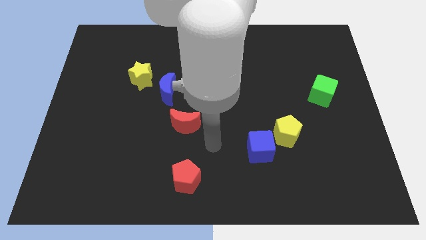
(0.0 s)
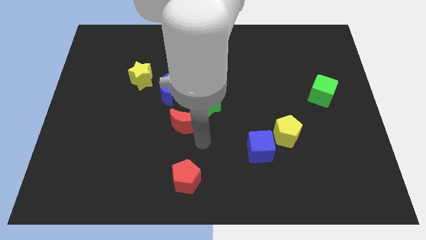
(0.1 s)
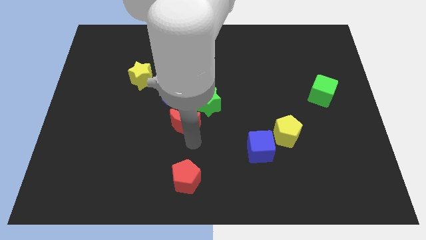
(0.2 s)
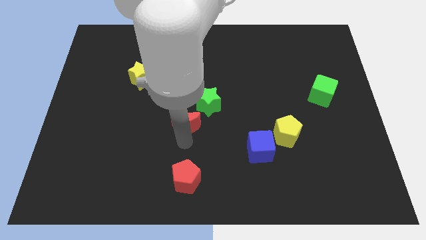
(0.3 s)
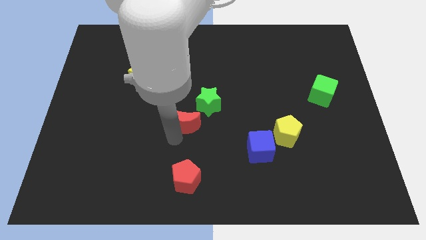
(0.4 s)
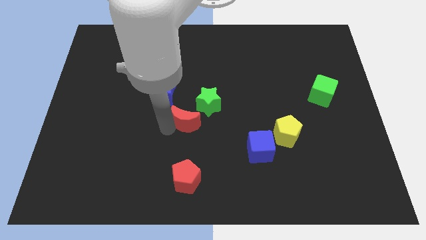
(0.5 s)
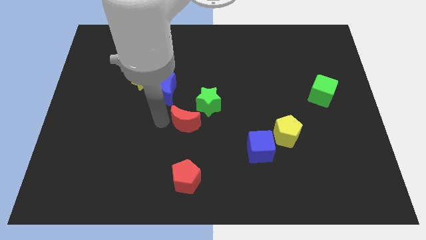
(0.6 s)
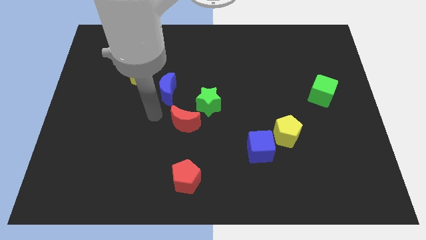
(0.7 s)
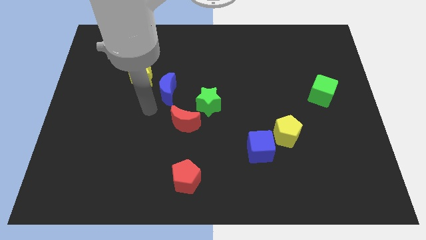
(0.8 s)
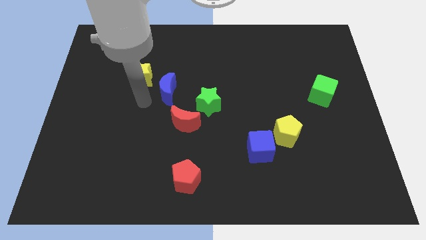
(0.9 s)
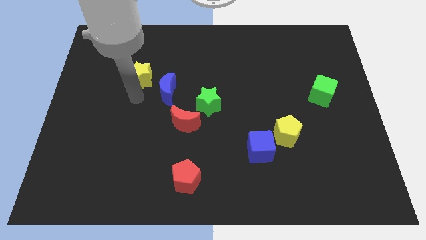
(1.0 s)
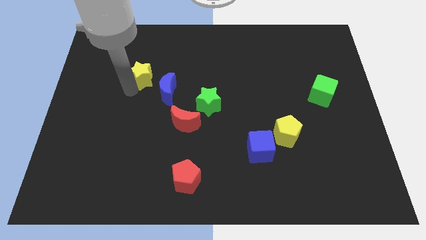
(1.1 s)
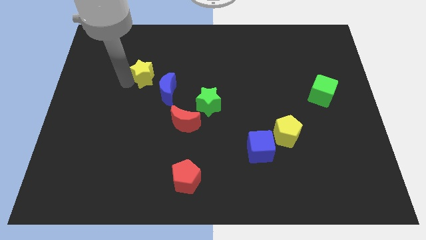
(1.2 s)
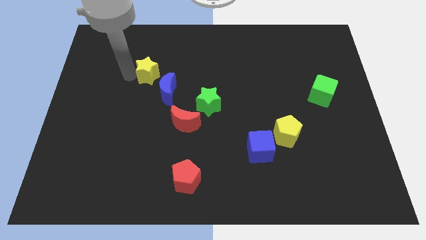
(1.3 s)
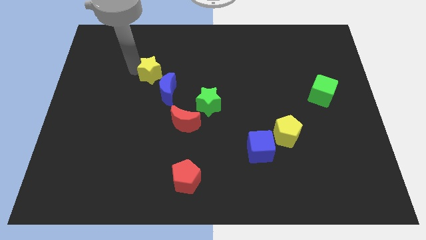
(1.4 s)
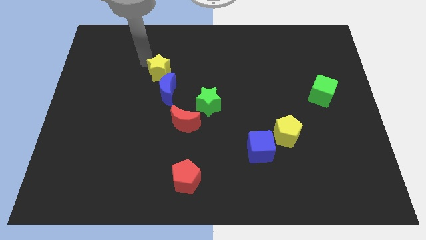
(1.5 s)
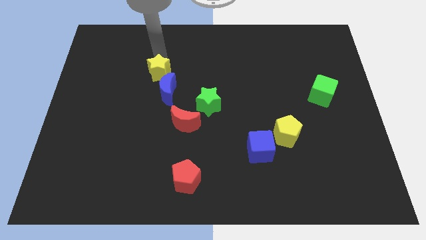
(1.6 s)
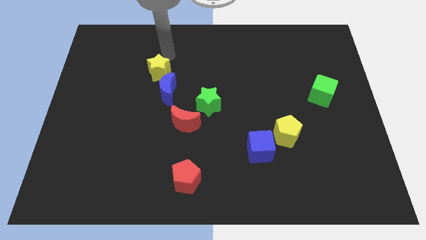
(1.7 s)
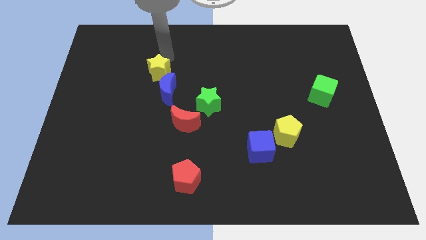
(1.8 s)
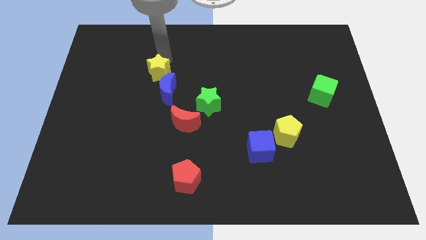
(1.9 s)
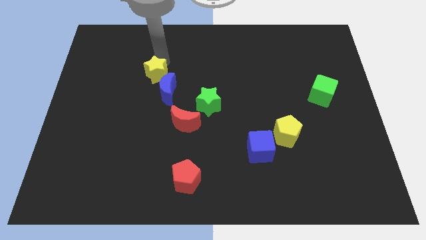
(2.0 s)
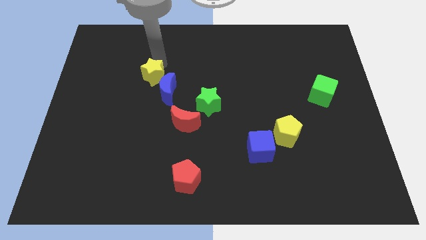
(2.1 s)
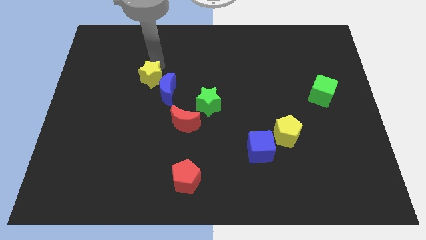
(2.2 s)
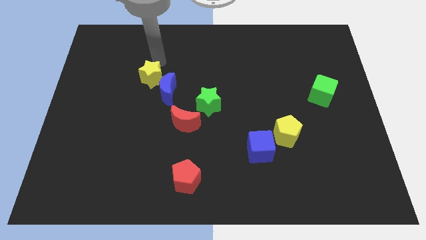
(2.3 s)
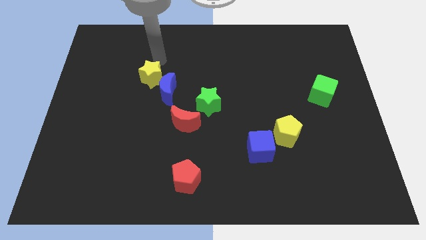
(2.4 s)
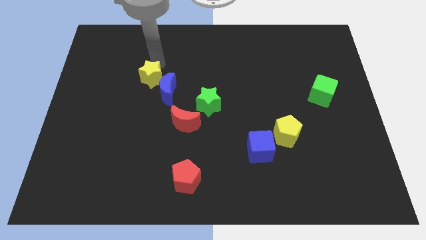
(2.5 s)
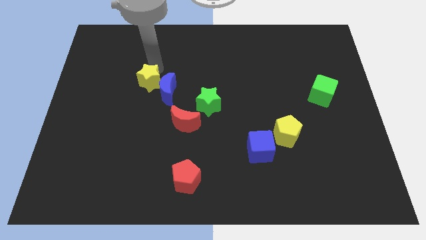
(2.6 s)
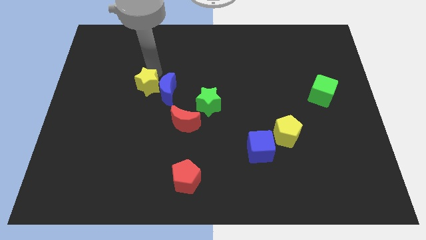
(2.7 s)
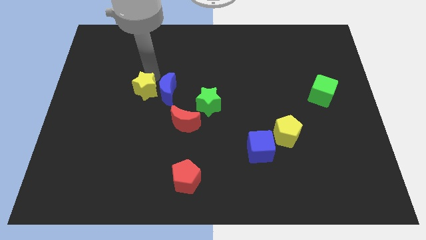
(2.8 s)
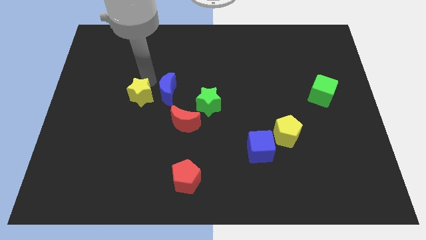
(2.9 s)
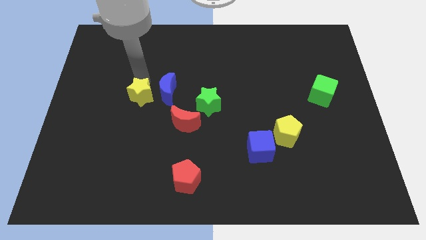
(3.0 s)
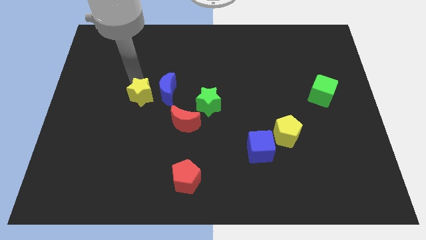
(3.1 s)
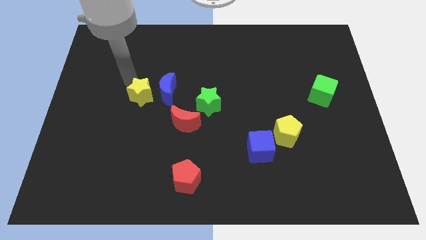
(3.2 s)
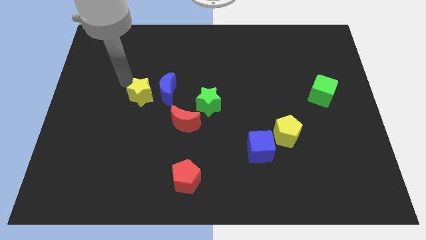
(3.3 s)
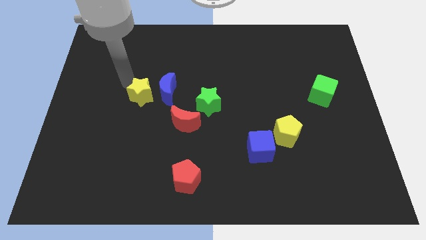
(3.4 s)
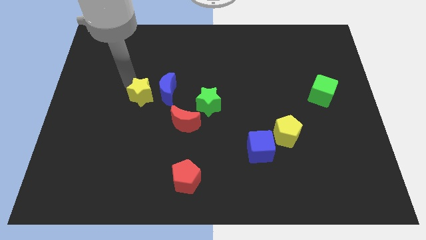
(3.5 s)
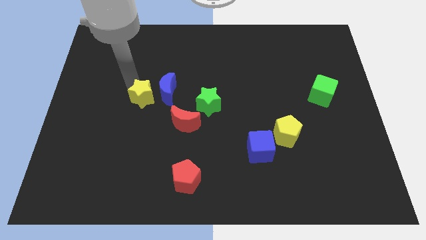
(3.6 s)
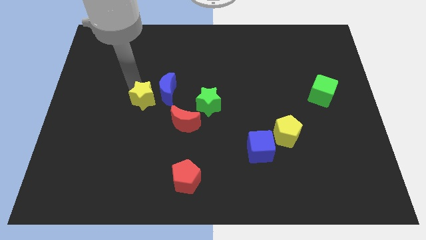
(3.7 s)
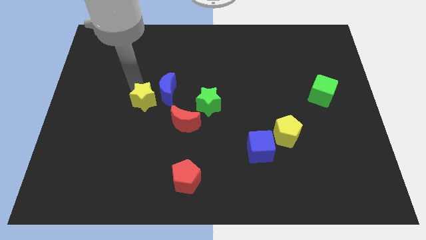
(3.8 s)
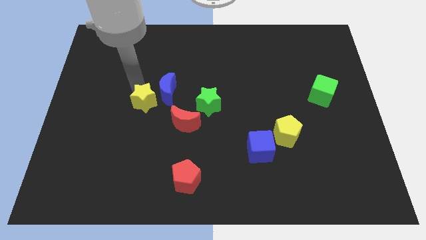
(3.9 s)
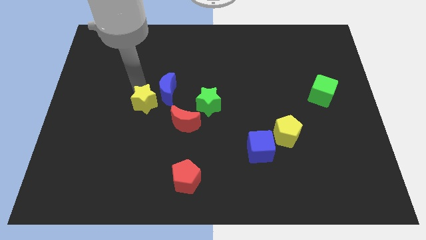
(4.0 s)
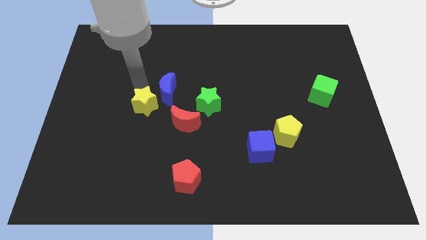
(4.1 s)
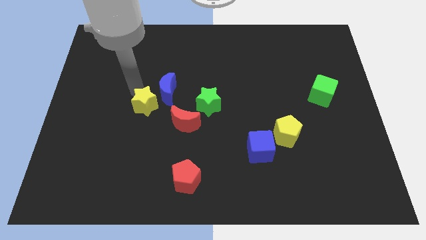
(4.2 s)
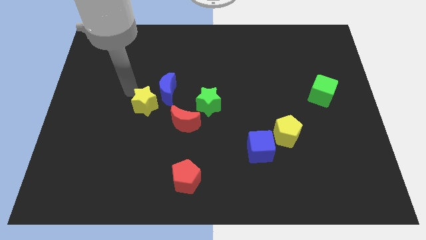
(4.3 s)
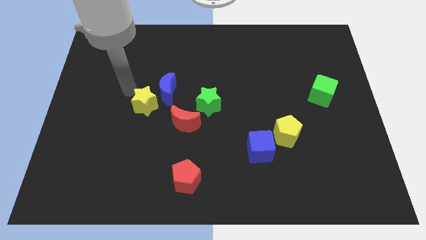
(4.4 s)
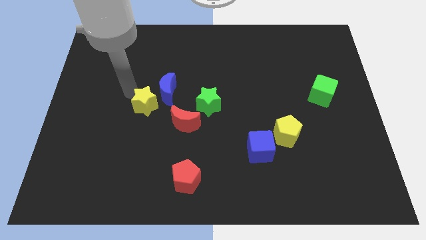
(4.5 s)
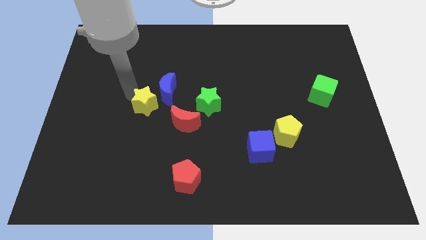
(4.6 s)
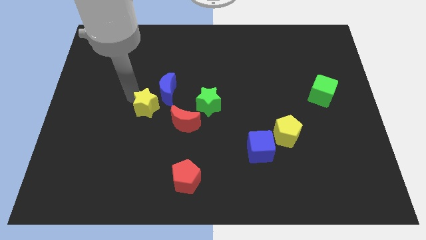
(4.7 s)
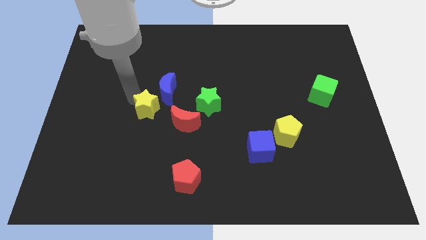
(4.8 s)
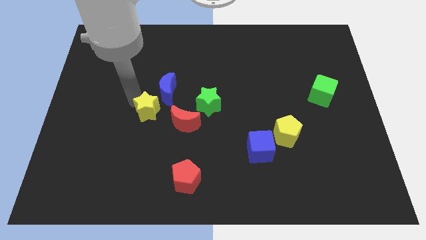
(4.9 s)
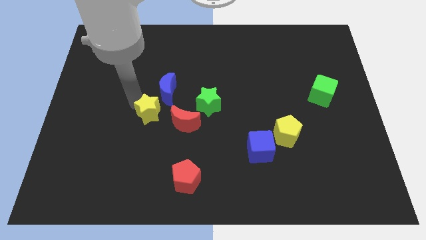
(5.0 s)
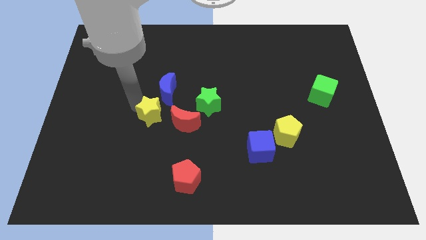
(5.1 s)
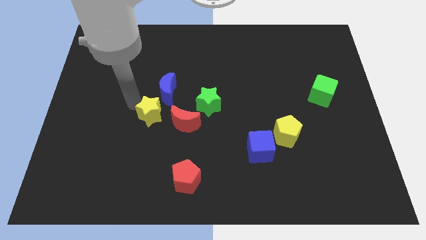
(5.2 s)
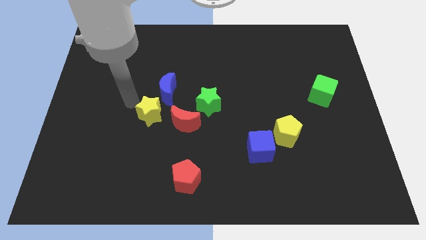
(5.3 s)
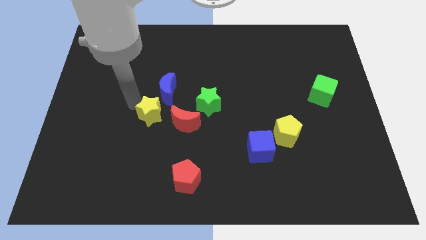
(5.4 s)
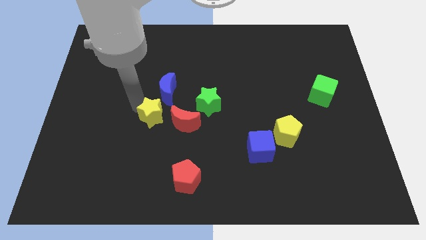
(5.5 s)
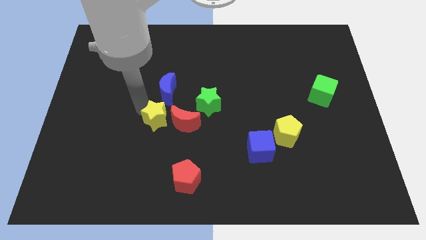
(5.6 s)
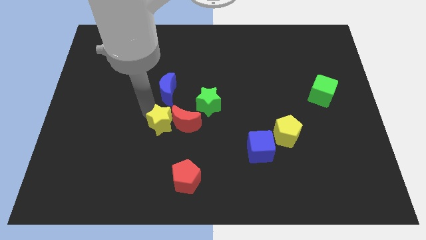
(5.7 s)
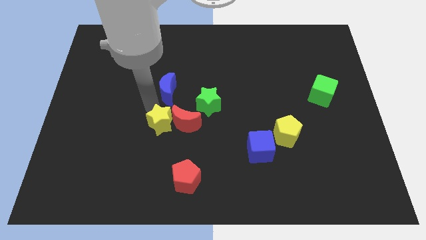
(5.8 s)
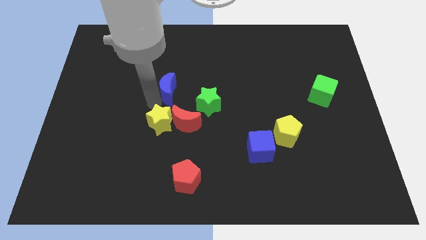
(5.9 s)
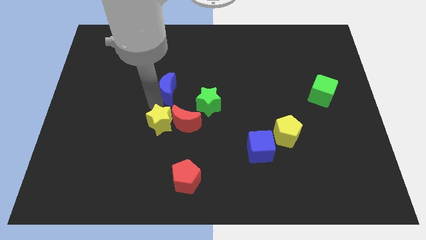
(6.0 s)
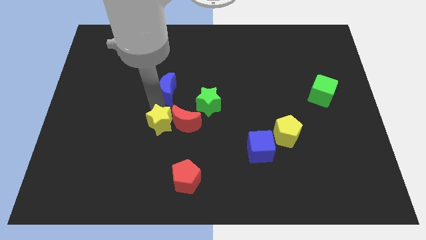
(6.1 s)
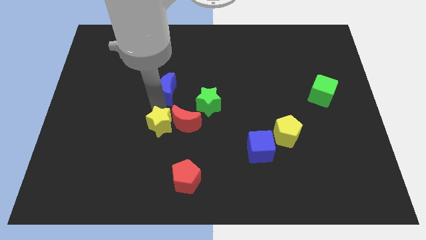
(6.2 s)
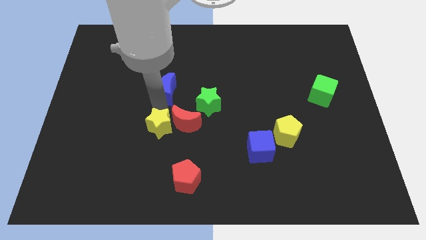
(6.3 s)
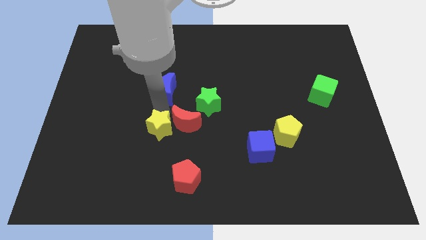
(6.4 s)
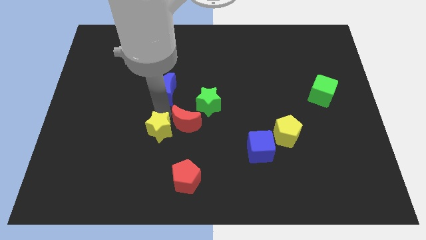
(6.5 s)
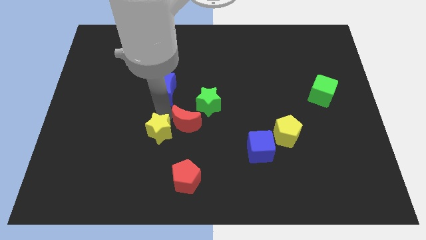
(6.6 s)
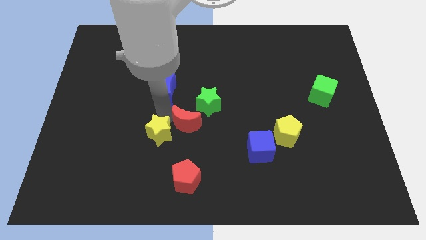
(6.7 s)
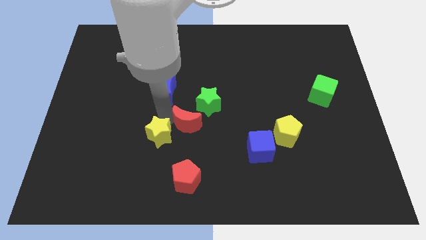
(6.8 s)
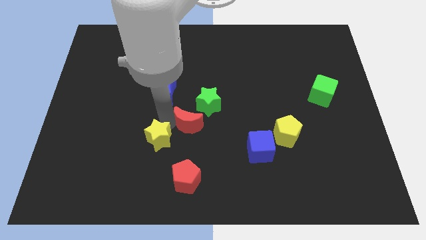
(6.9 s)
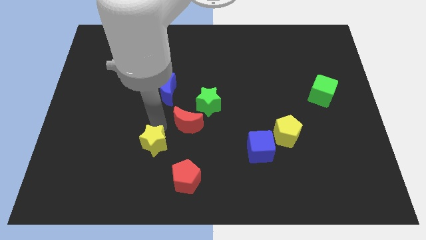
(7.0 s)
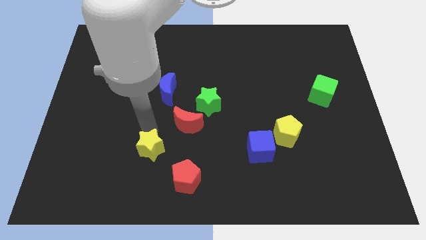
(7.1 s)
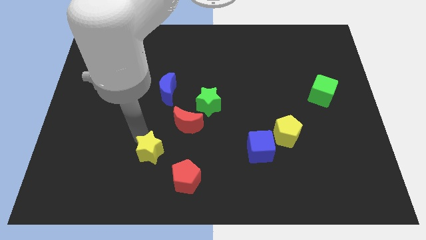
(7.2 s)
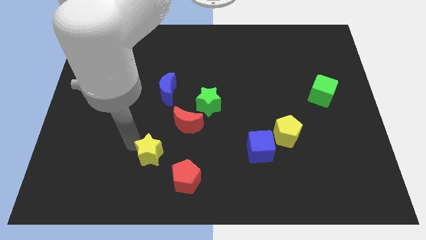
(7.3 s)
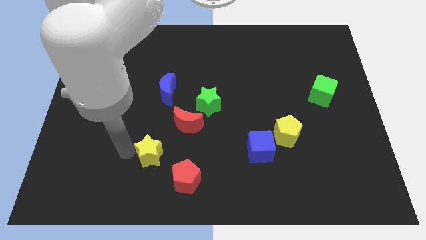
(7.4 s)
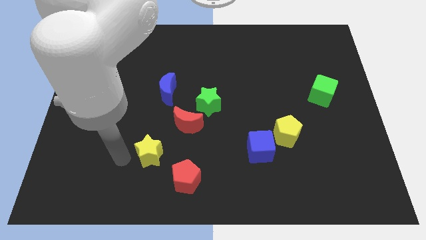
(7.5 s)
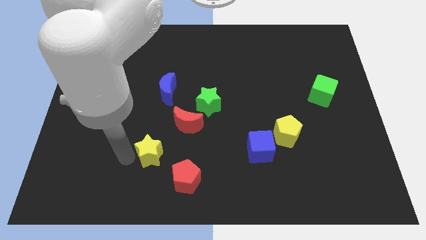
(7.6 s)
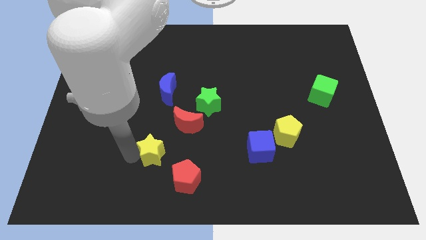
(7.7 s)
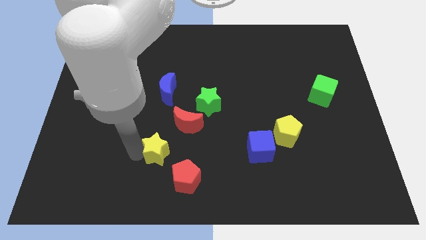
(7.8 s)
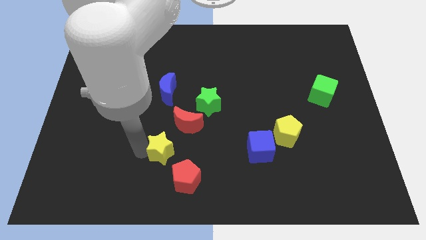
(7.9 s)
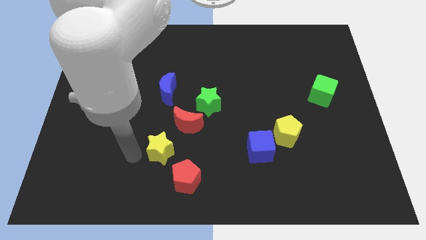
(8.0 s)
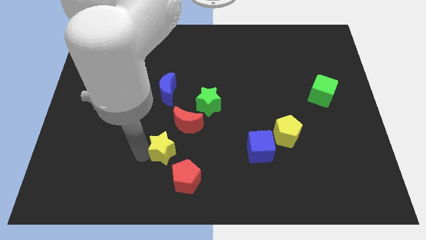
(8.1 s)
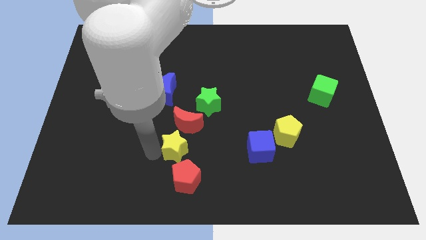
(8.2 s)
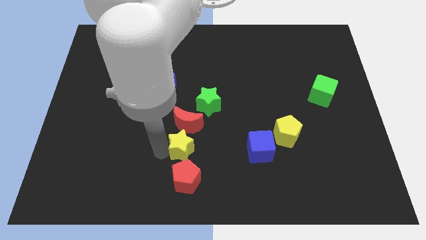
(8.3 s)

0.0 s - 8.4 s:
move the yellow star diagonally down and to the right of the red moon
